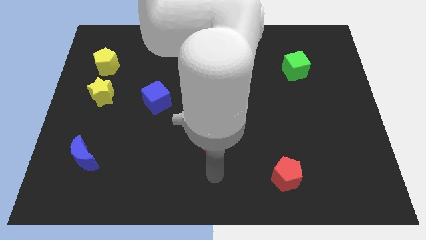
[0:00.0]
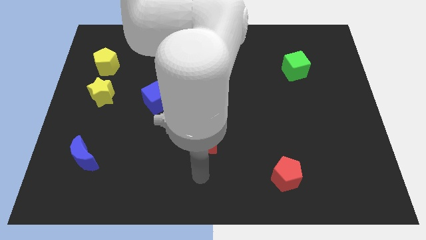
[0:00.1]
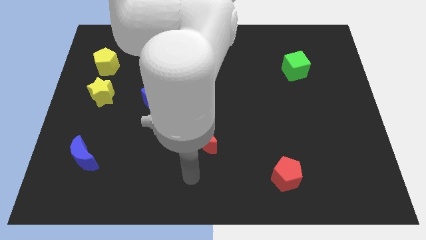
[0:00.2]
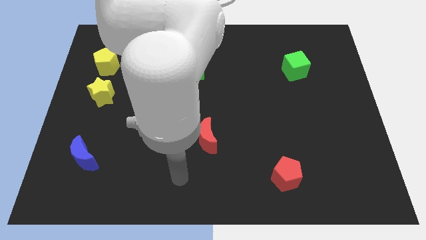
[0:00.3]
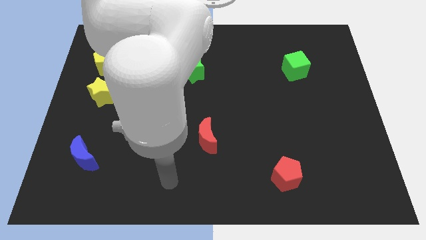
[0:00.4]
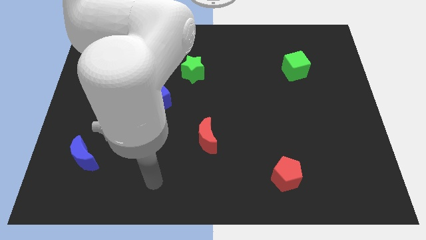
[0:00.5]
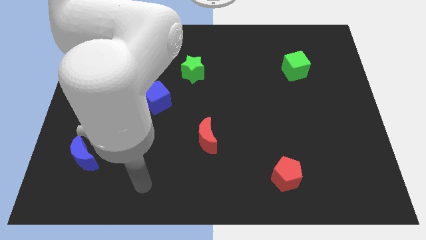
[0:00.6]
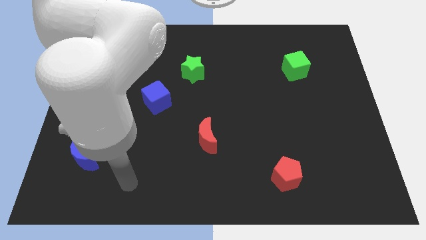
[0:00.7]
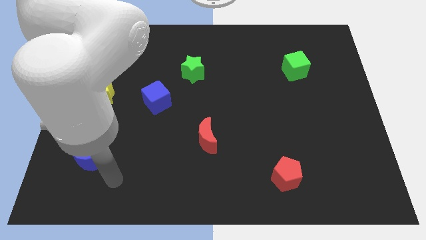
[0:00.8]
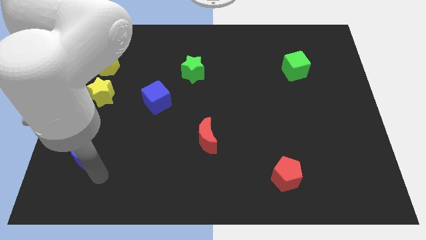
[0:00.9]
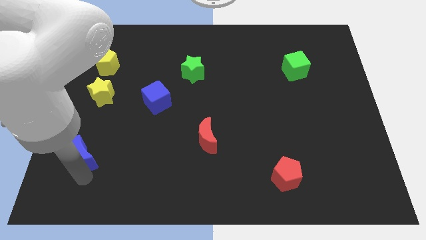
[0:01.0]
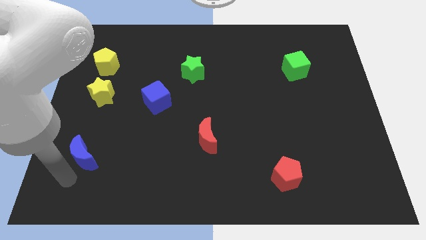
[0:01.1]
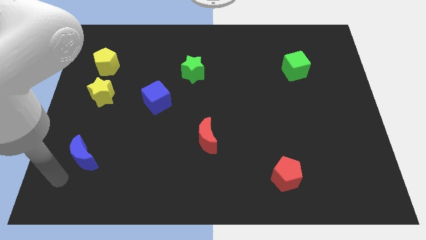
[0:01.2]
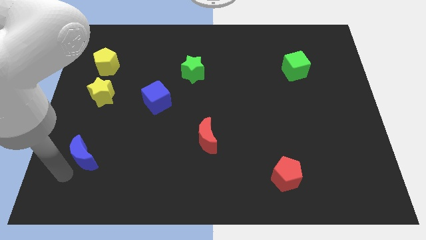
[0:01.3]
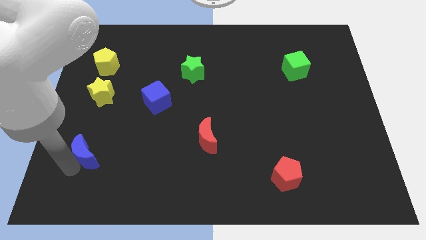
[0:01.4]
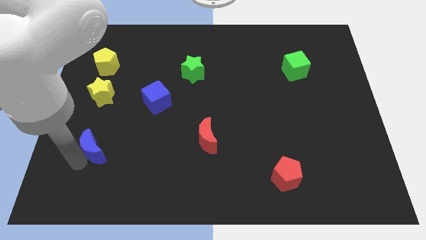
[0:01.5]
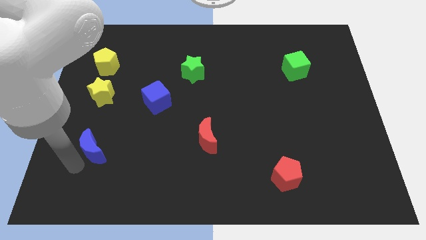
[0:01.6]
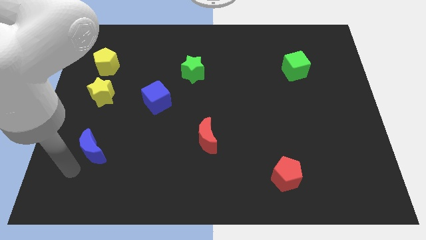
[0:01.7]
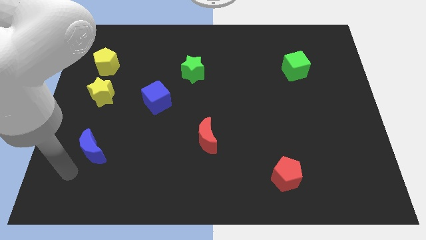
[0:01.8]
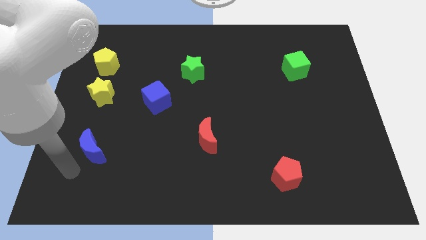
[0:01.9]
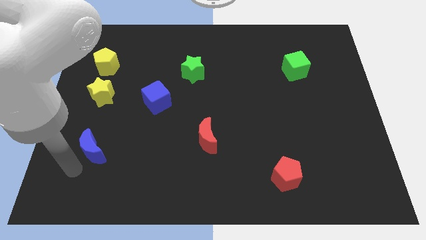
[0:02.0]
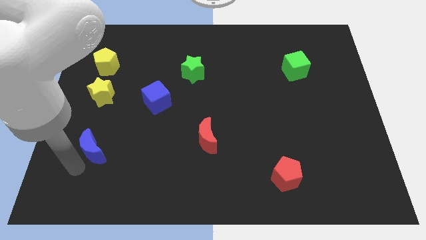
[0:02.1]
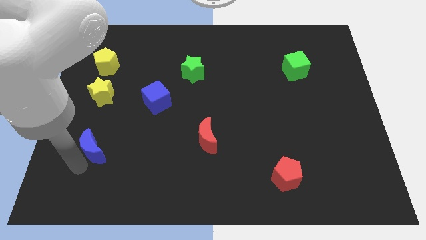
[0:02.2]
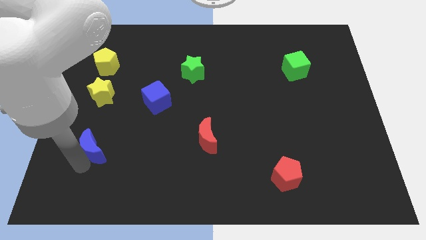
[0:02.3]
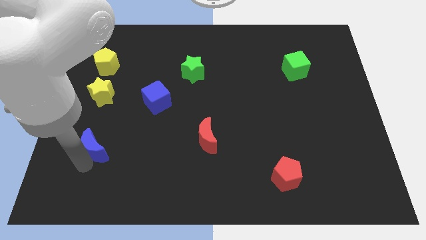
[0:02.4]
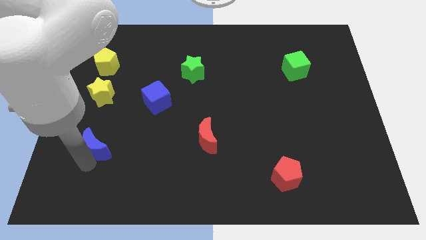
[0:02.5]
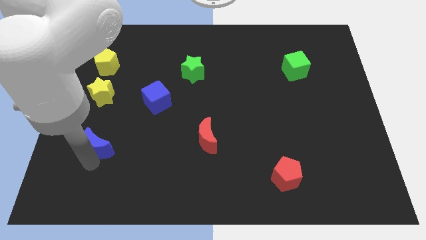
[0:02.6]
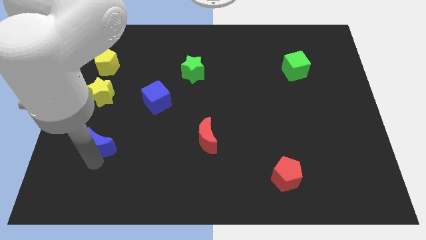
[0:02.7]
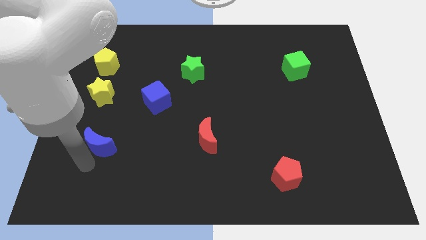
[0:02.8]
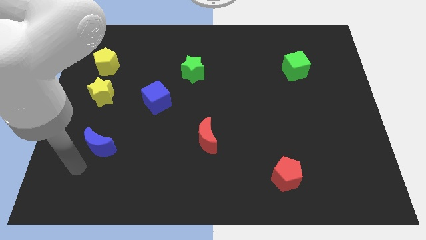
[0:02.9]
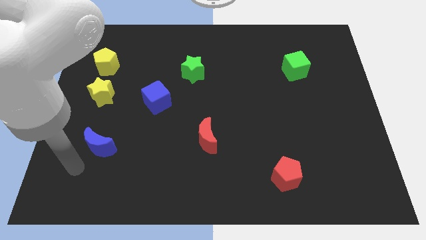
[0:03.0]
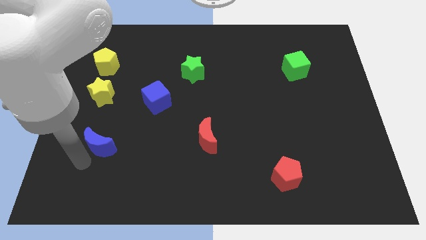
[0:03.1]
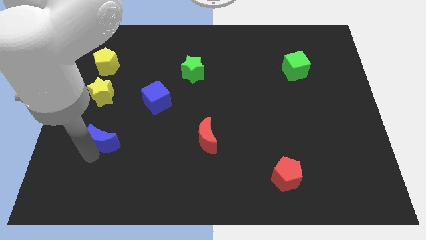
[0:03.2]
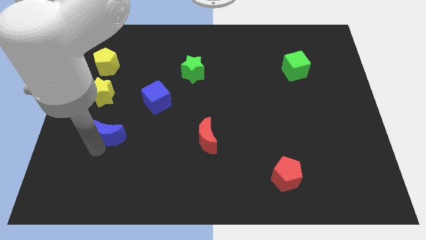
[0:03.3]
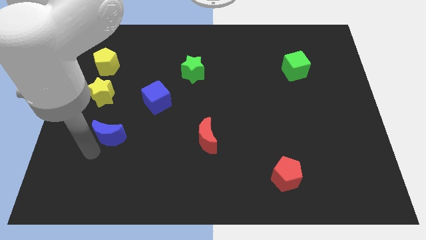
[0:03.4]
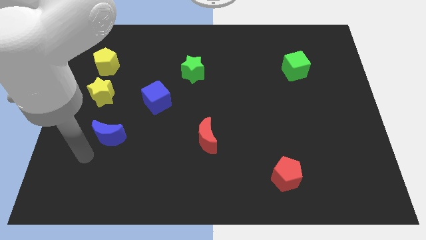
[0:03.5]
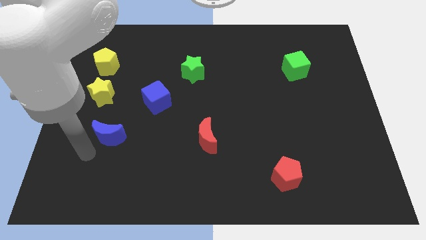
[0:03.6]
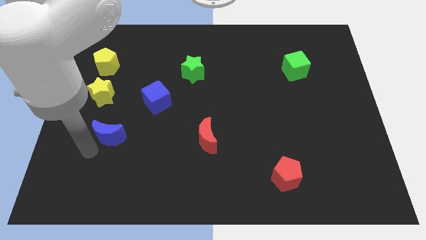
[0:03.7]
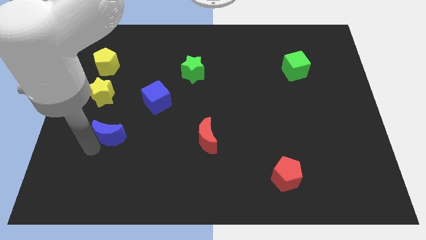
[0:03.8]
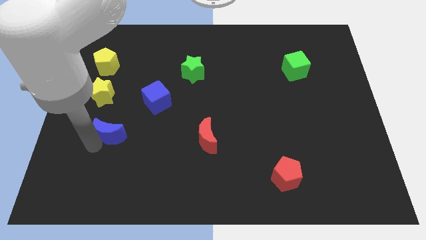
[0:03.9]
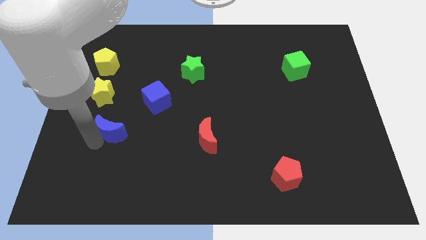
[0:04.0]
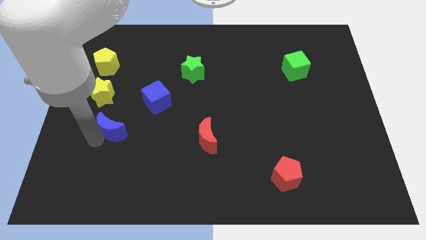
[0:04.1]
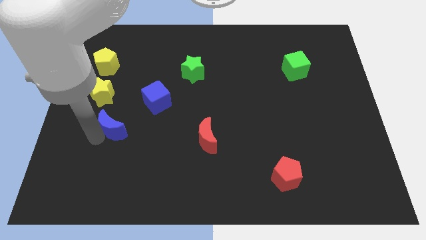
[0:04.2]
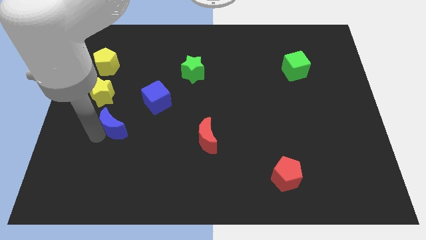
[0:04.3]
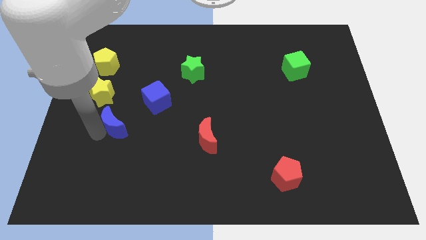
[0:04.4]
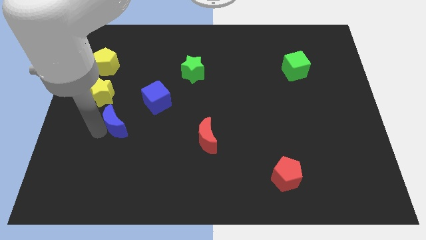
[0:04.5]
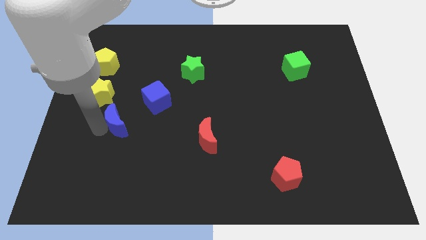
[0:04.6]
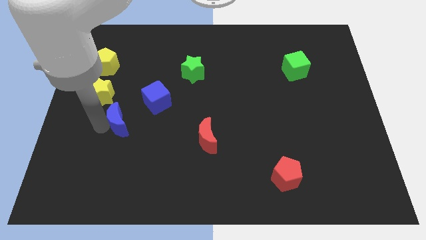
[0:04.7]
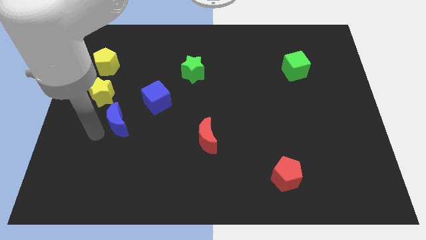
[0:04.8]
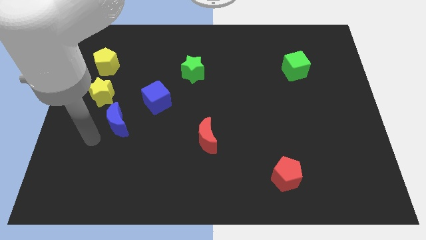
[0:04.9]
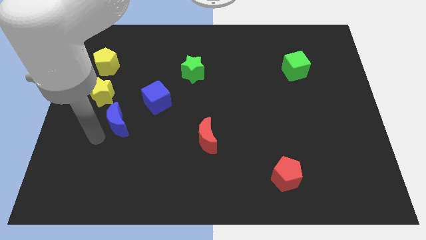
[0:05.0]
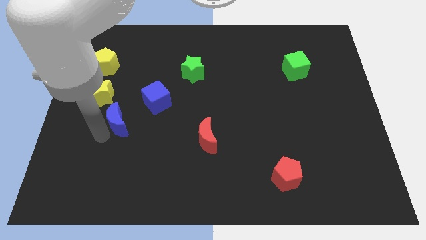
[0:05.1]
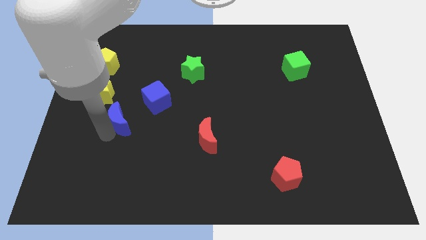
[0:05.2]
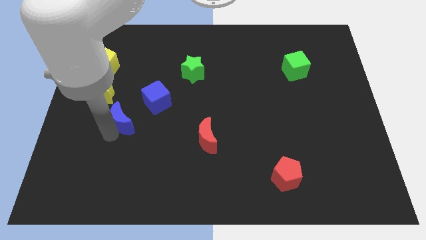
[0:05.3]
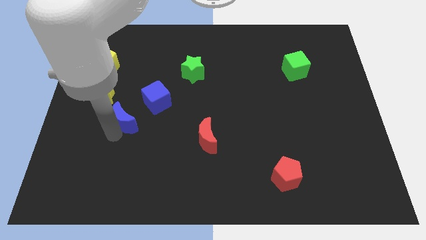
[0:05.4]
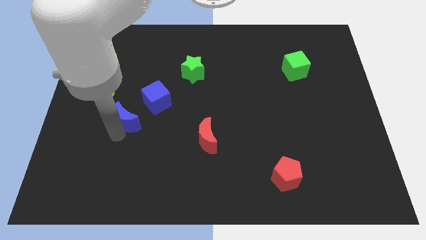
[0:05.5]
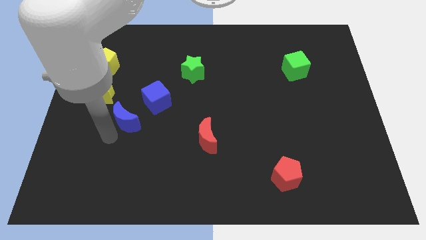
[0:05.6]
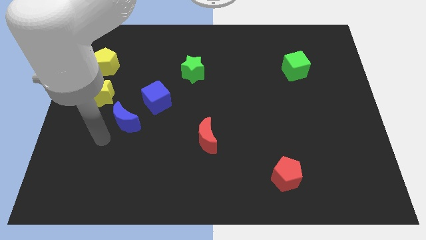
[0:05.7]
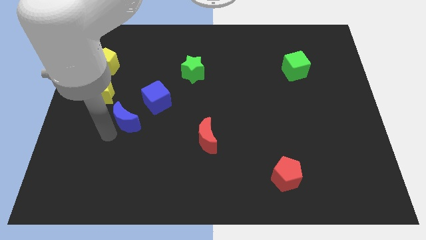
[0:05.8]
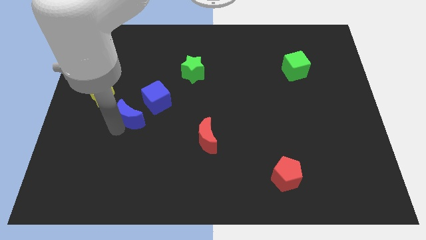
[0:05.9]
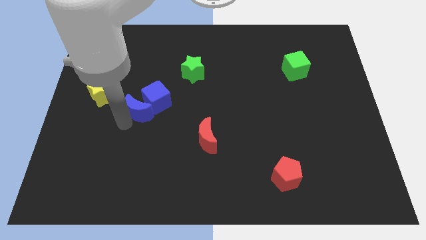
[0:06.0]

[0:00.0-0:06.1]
put the blue moon towards the blue cube

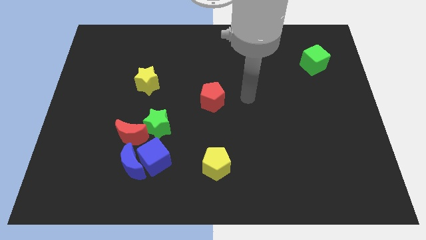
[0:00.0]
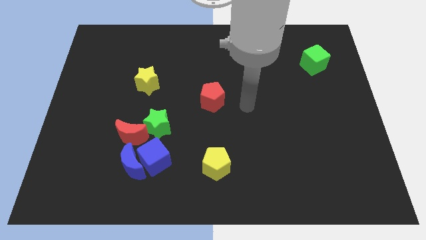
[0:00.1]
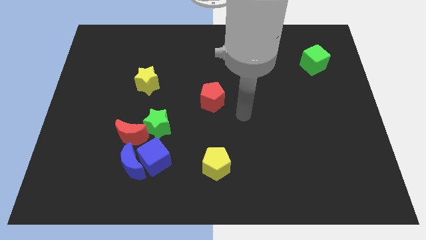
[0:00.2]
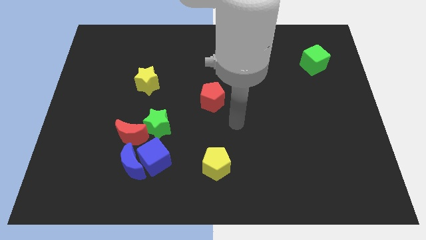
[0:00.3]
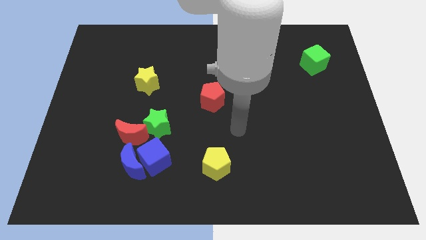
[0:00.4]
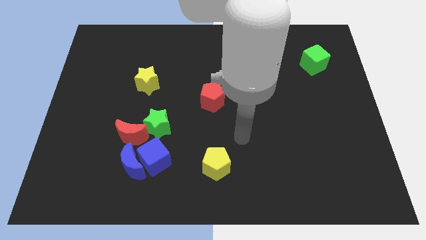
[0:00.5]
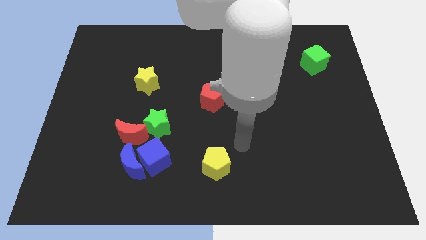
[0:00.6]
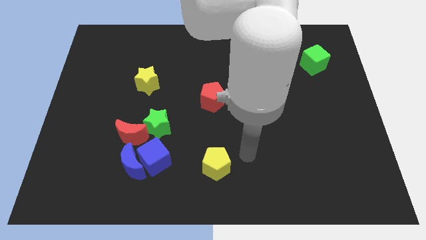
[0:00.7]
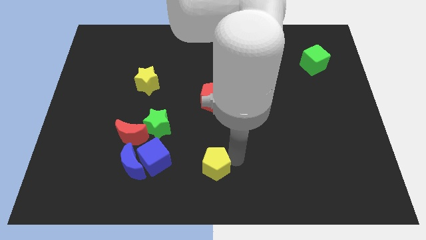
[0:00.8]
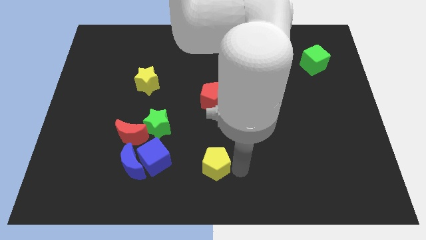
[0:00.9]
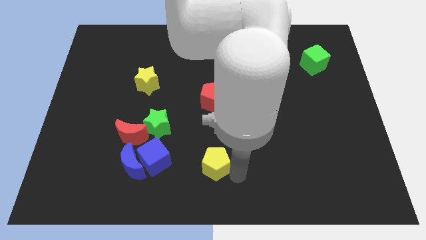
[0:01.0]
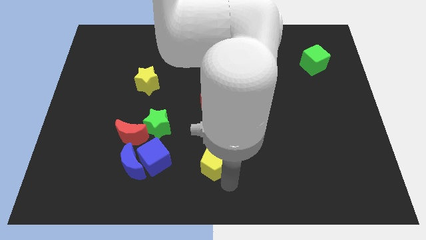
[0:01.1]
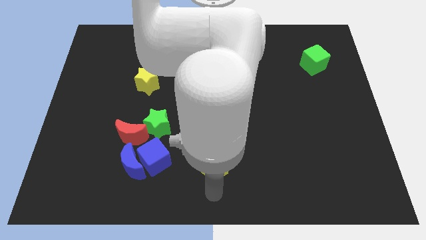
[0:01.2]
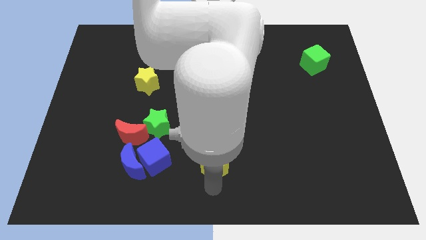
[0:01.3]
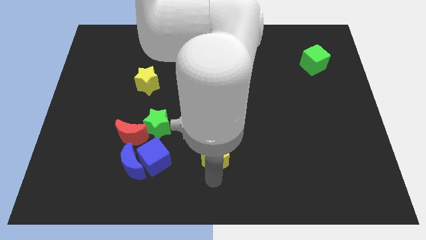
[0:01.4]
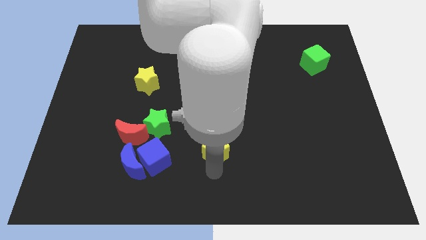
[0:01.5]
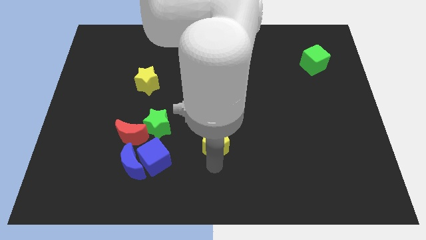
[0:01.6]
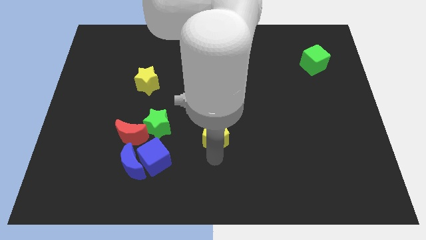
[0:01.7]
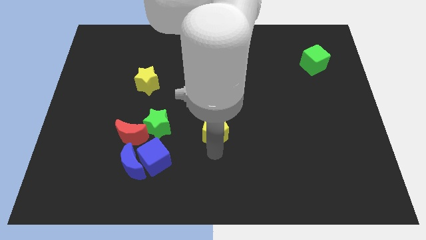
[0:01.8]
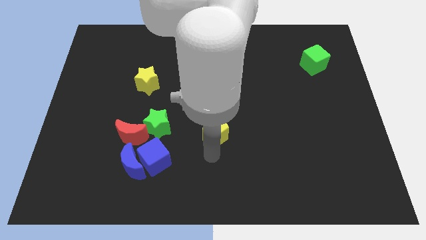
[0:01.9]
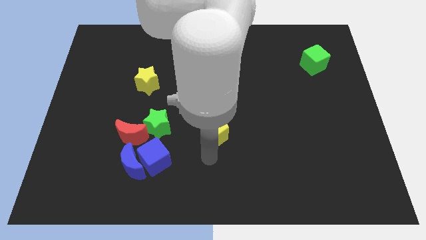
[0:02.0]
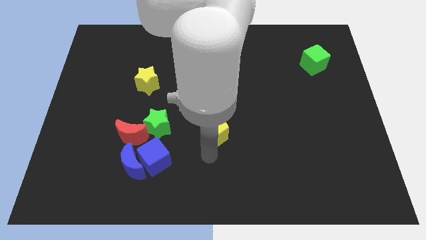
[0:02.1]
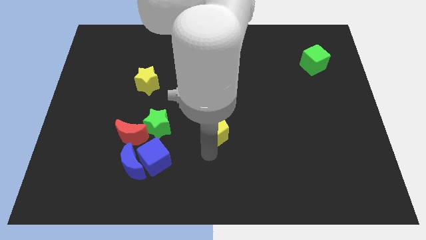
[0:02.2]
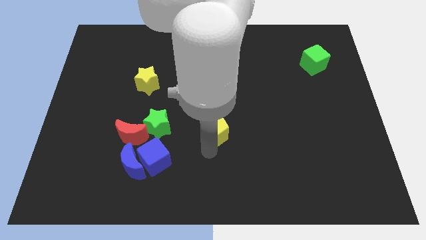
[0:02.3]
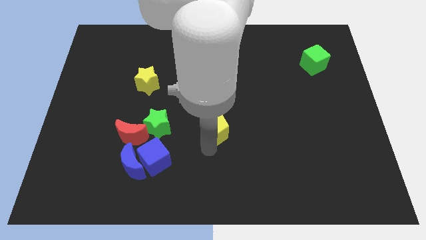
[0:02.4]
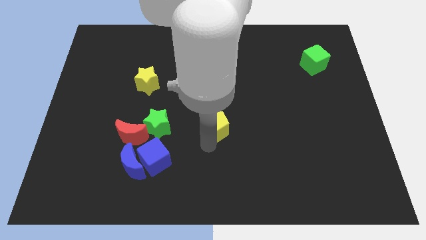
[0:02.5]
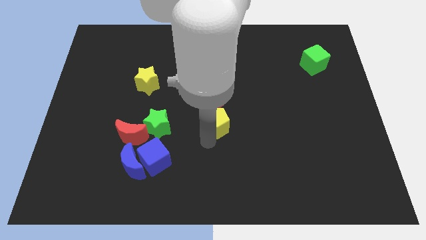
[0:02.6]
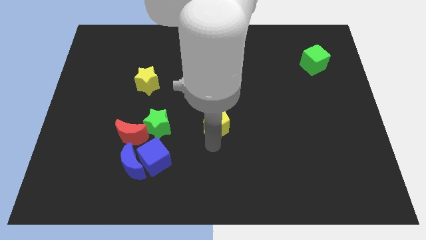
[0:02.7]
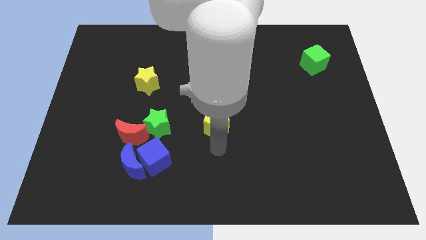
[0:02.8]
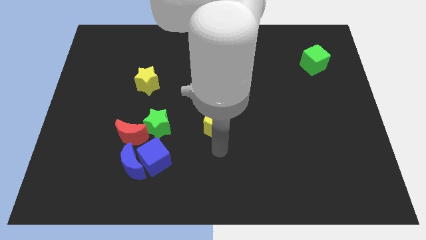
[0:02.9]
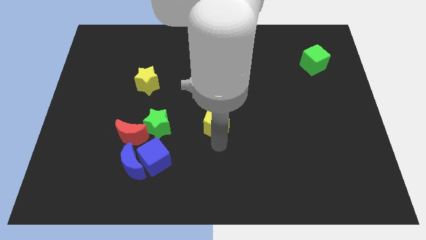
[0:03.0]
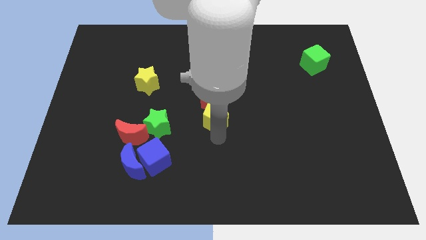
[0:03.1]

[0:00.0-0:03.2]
put the yellow pentagon next to the red pentagon
